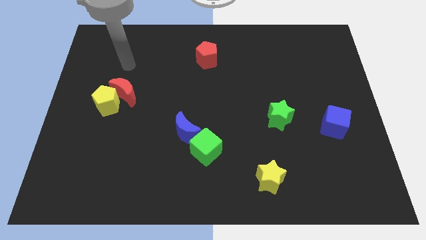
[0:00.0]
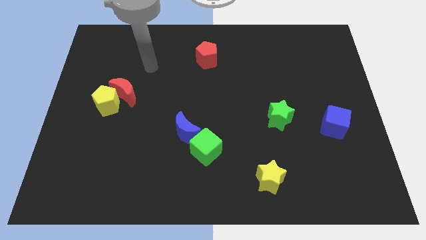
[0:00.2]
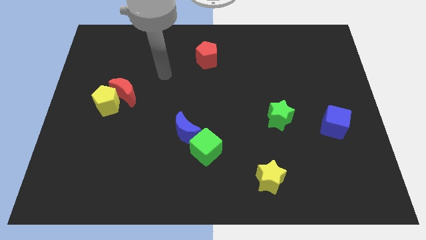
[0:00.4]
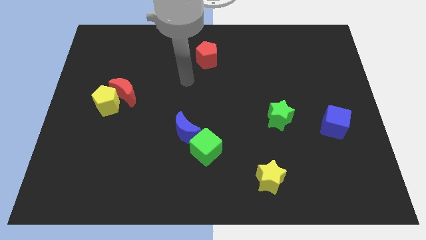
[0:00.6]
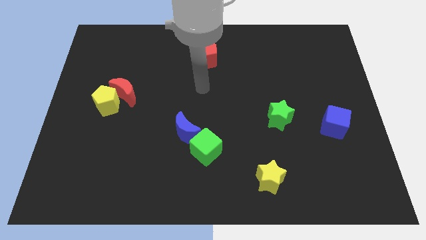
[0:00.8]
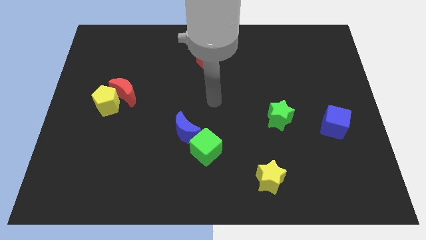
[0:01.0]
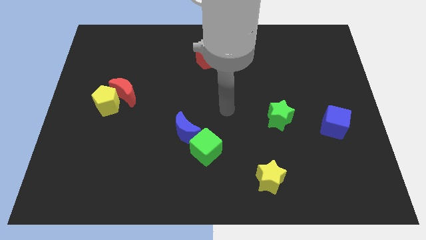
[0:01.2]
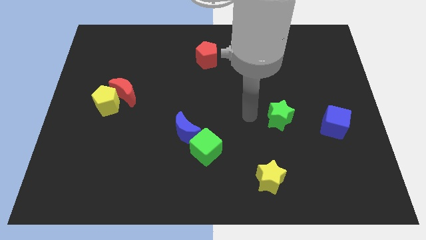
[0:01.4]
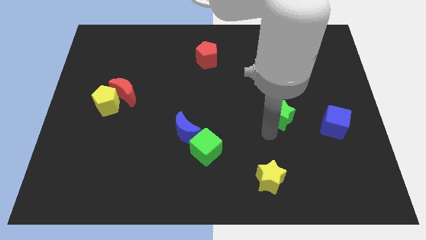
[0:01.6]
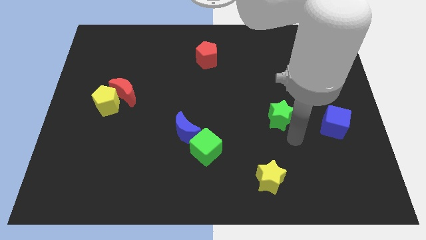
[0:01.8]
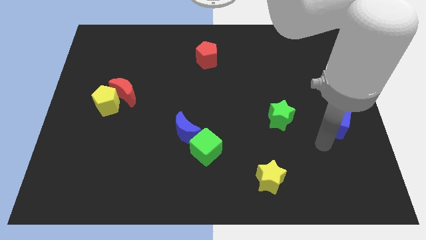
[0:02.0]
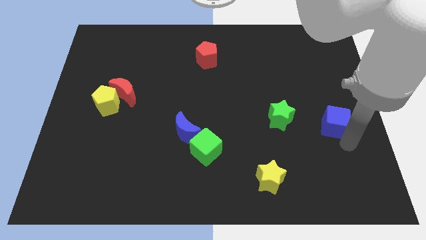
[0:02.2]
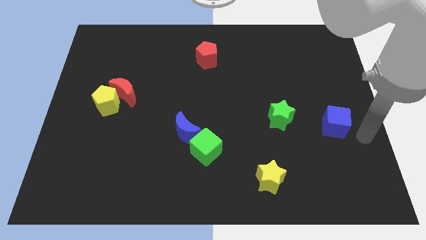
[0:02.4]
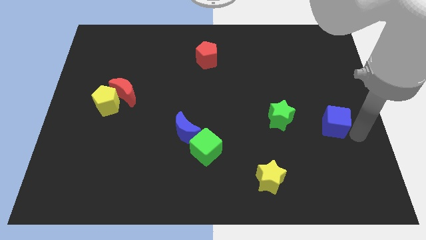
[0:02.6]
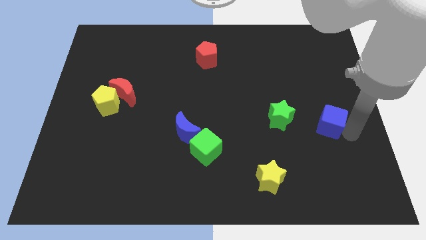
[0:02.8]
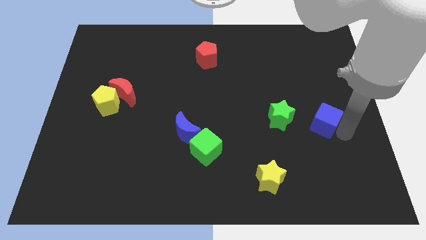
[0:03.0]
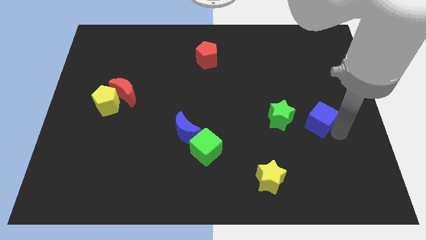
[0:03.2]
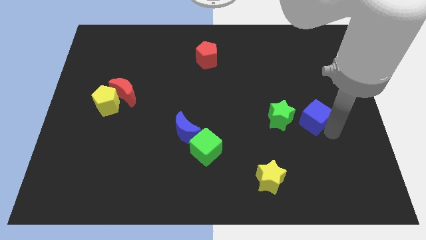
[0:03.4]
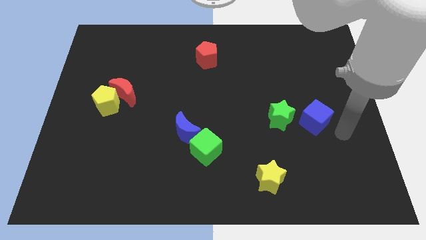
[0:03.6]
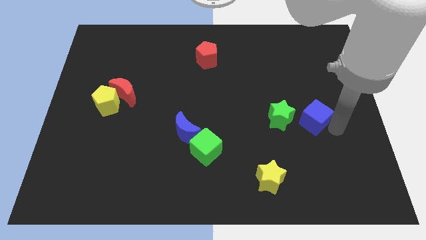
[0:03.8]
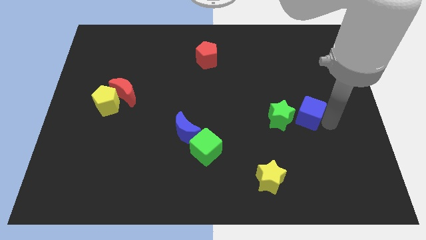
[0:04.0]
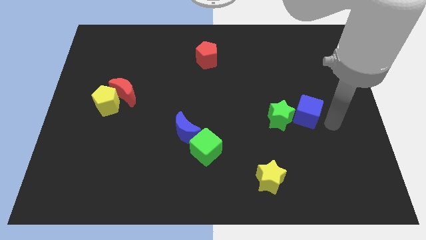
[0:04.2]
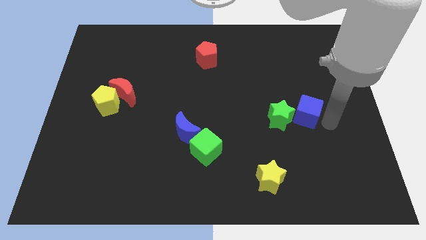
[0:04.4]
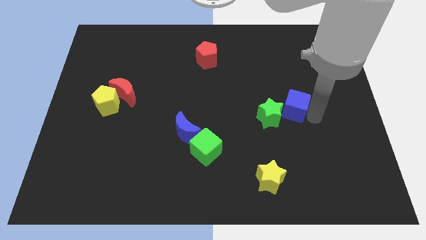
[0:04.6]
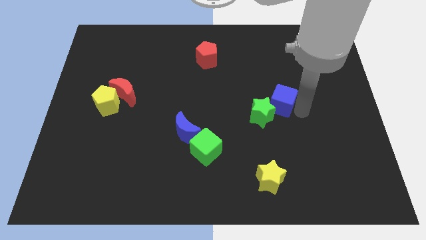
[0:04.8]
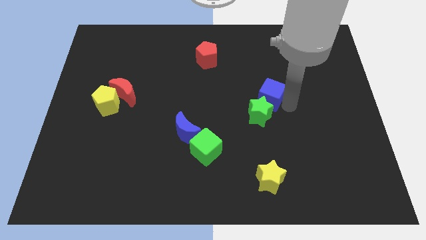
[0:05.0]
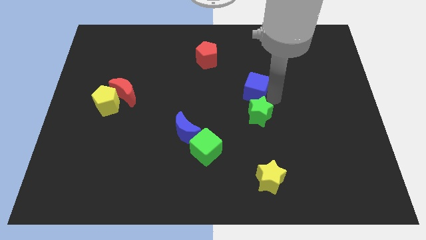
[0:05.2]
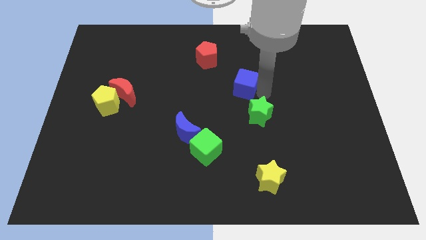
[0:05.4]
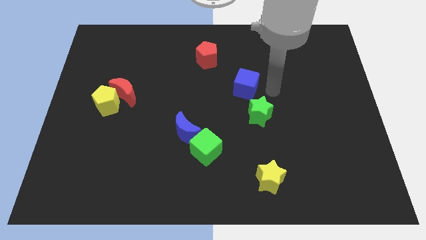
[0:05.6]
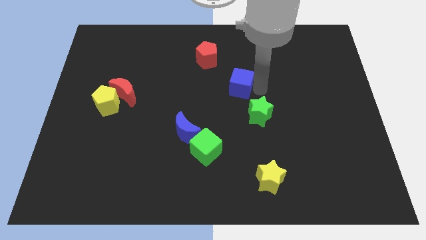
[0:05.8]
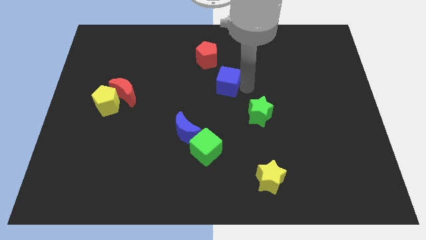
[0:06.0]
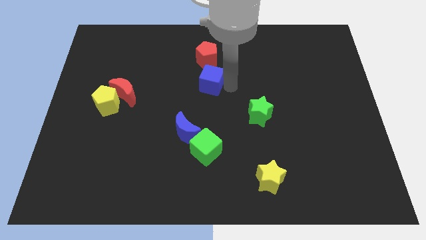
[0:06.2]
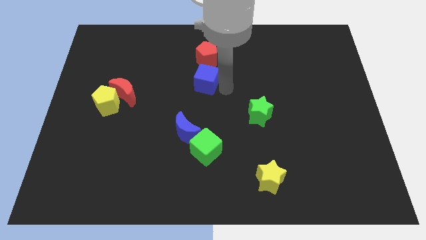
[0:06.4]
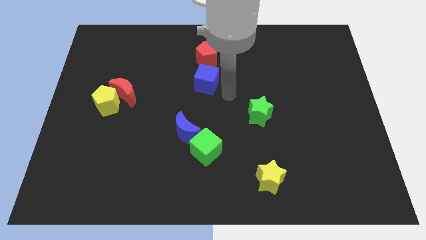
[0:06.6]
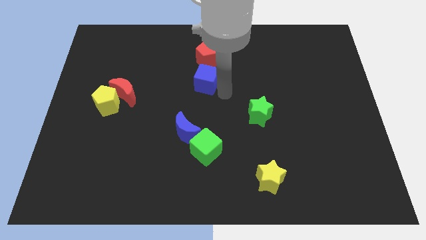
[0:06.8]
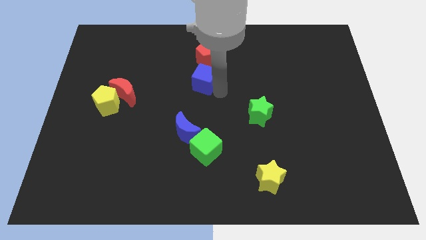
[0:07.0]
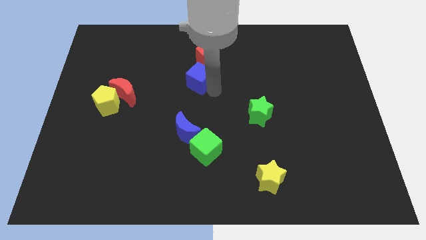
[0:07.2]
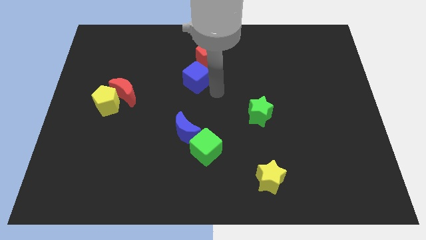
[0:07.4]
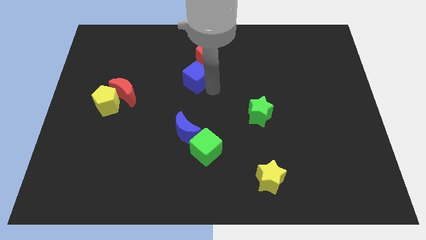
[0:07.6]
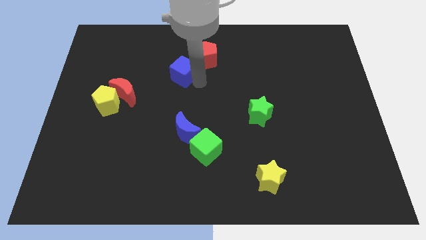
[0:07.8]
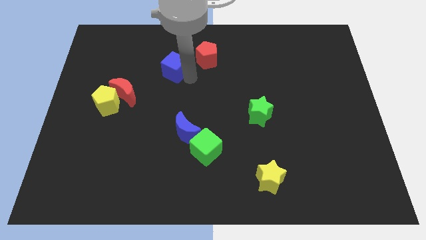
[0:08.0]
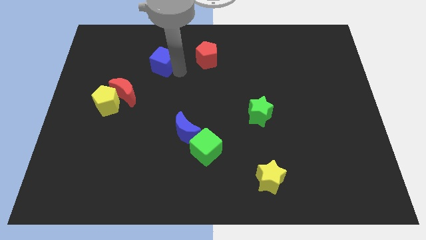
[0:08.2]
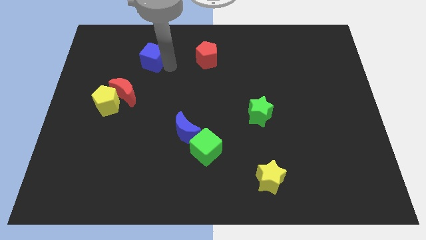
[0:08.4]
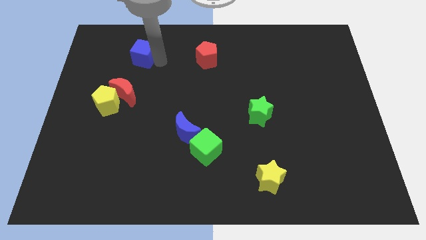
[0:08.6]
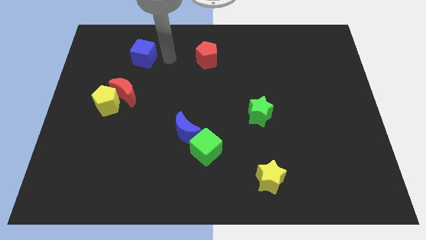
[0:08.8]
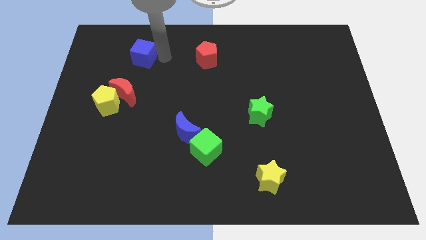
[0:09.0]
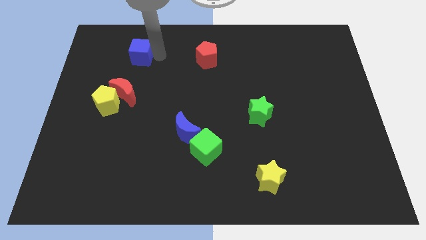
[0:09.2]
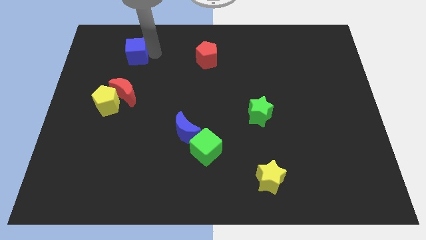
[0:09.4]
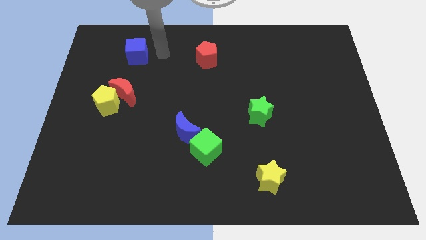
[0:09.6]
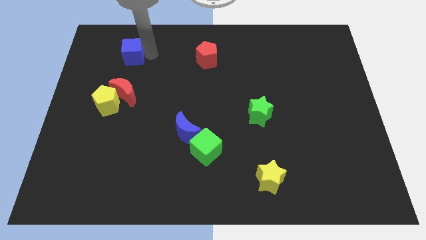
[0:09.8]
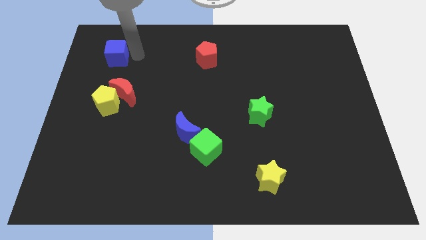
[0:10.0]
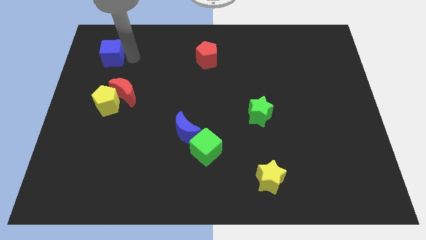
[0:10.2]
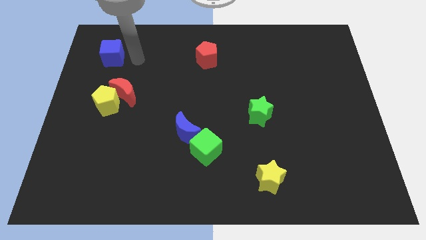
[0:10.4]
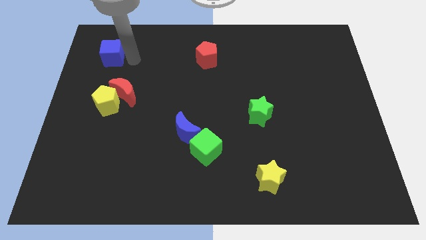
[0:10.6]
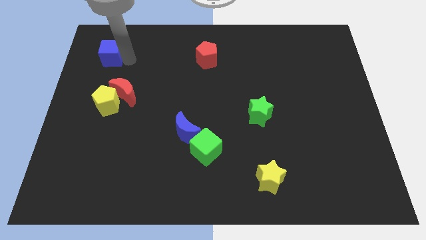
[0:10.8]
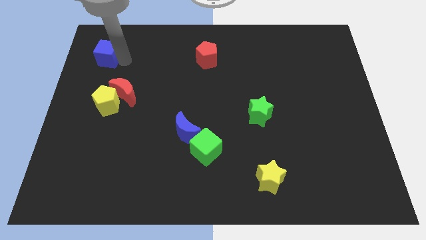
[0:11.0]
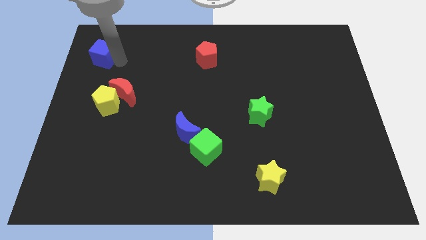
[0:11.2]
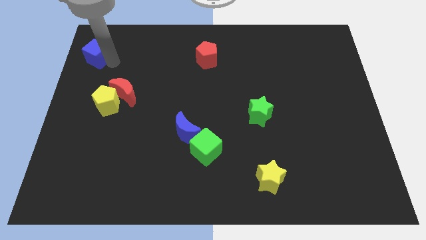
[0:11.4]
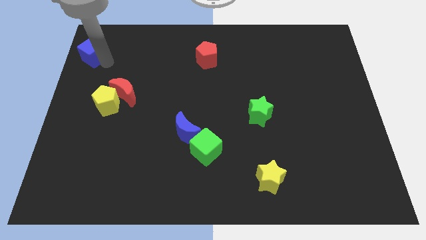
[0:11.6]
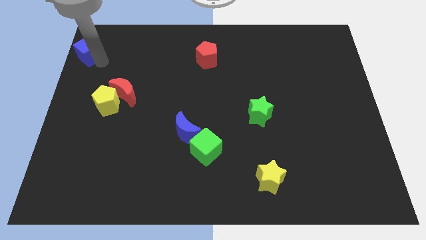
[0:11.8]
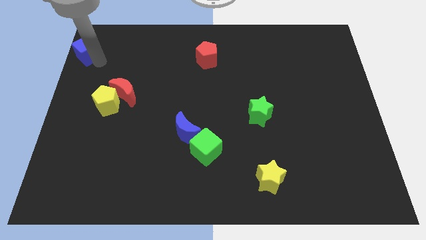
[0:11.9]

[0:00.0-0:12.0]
slide the blue cube to the top left
